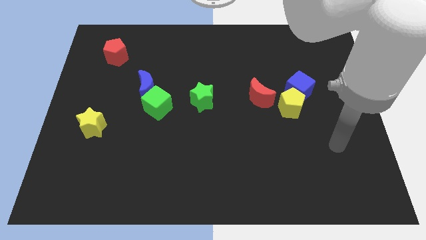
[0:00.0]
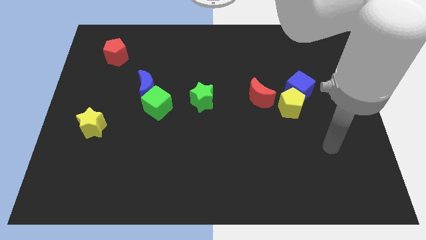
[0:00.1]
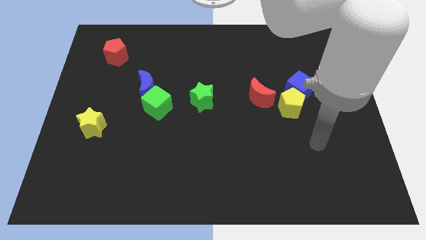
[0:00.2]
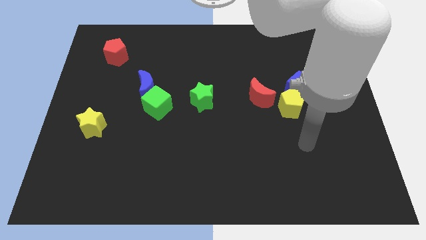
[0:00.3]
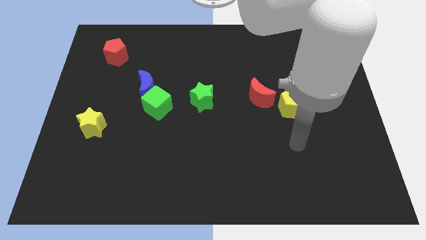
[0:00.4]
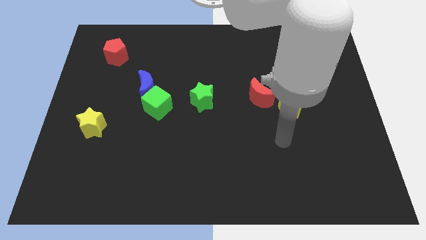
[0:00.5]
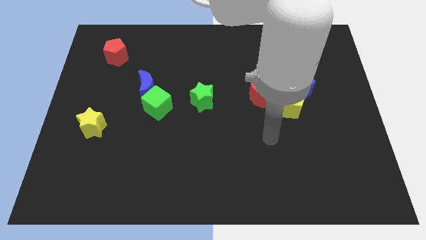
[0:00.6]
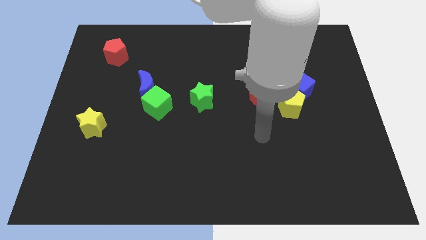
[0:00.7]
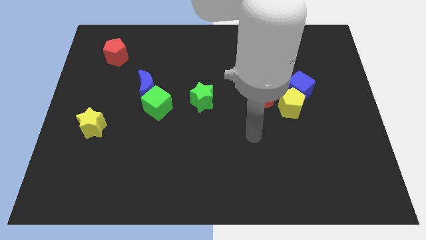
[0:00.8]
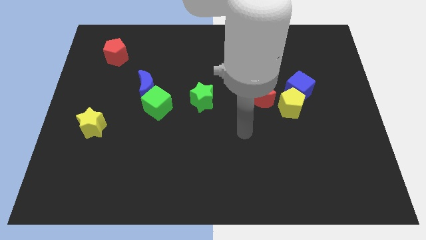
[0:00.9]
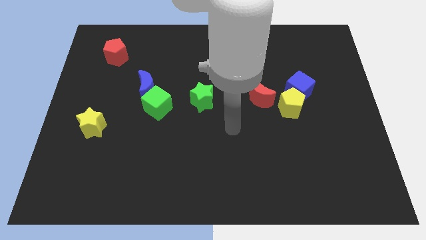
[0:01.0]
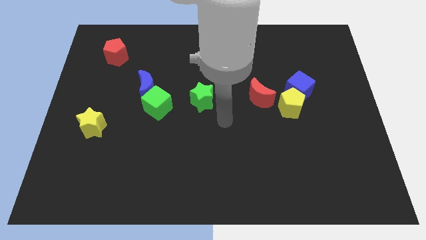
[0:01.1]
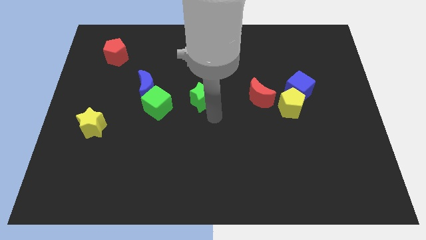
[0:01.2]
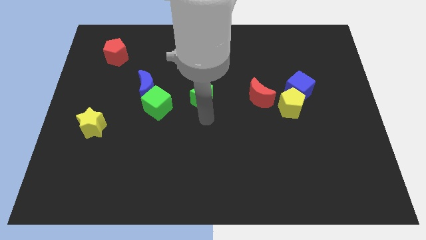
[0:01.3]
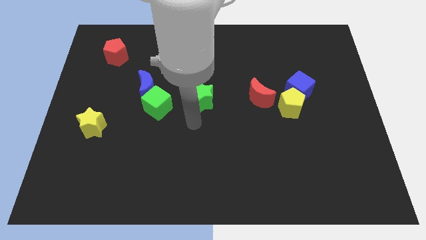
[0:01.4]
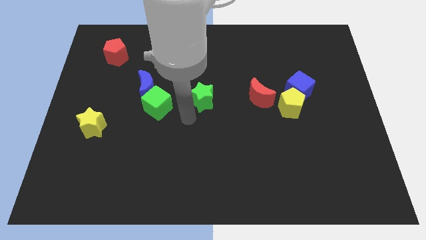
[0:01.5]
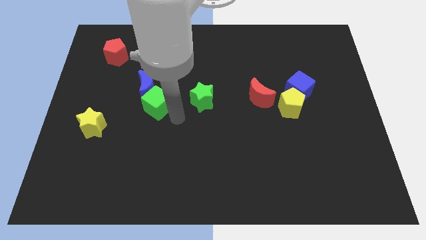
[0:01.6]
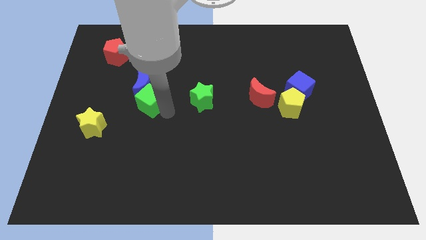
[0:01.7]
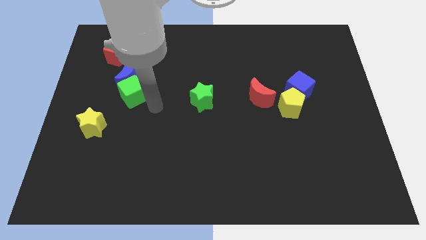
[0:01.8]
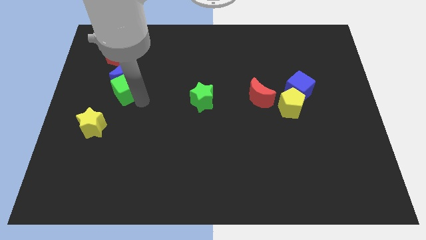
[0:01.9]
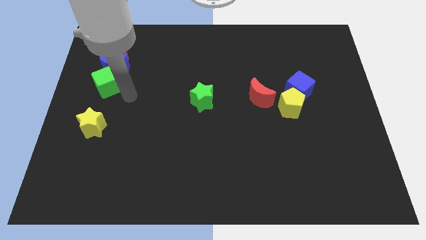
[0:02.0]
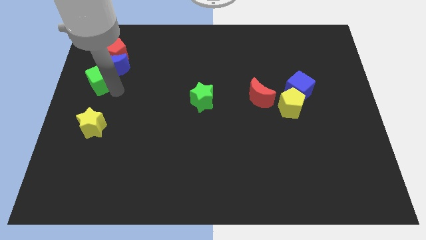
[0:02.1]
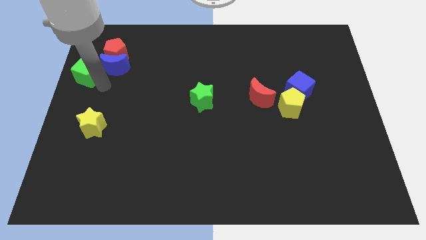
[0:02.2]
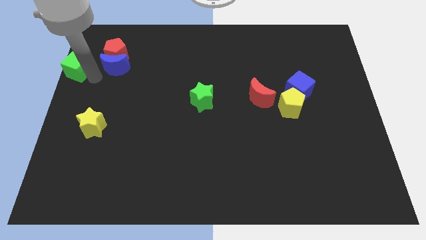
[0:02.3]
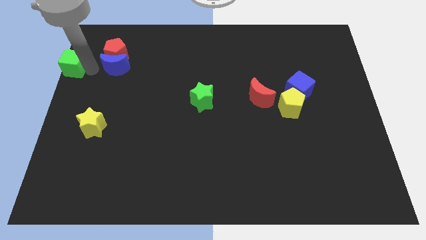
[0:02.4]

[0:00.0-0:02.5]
separate the blue moon from the green cube

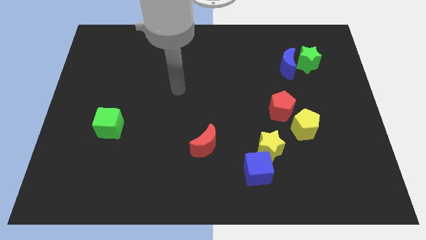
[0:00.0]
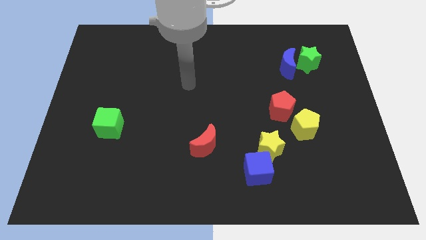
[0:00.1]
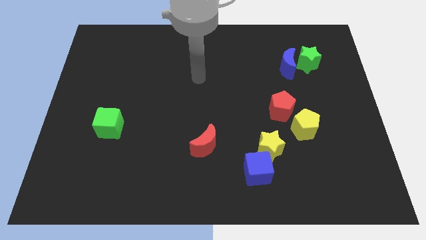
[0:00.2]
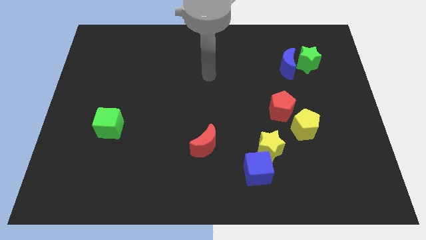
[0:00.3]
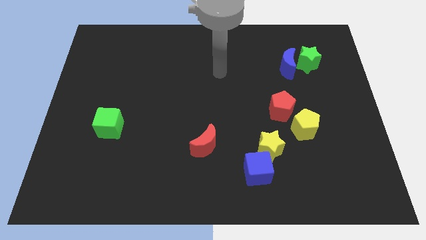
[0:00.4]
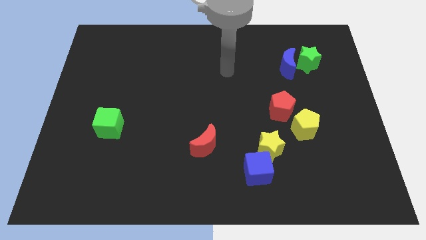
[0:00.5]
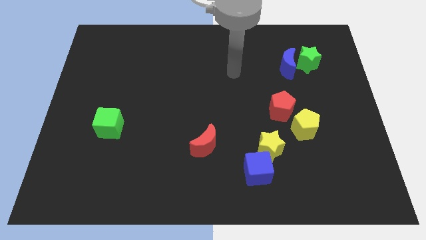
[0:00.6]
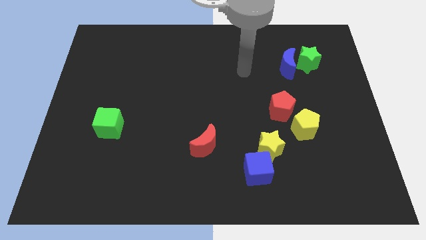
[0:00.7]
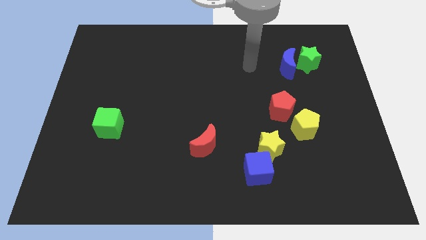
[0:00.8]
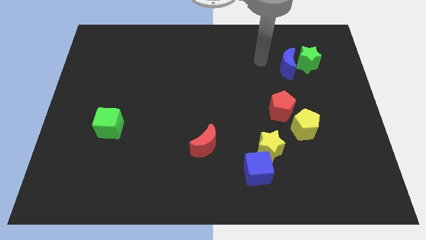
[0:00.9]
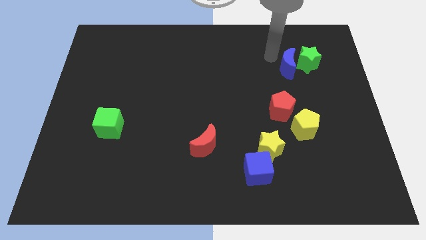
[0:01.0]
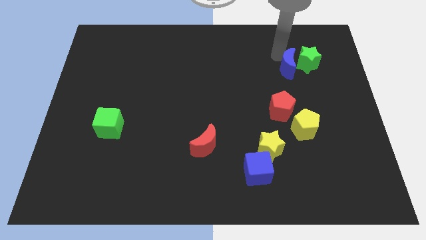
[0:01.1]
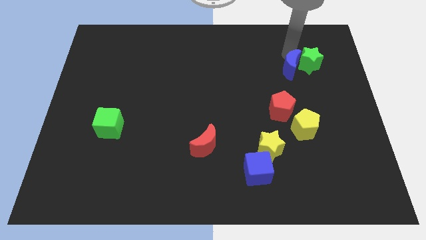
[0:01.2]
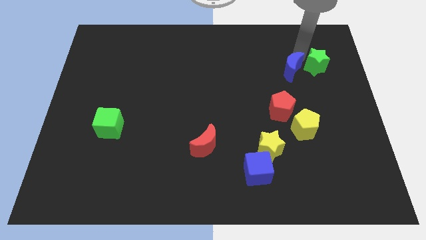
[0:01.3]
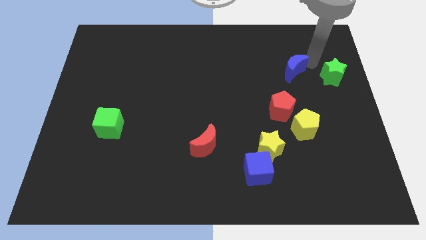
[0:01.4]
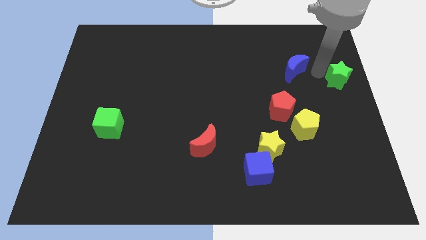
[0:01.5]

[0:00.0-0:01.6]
separate the blue moon from the green star

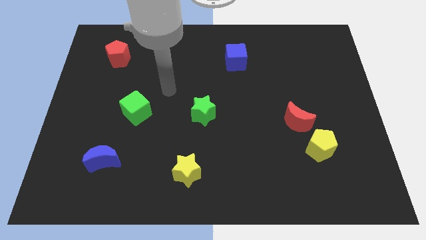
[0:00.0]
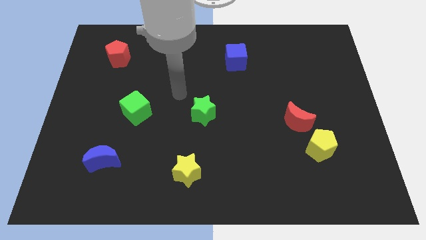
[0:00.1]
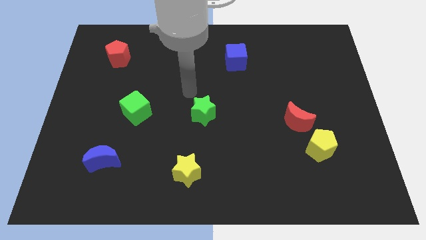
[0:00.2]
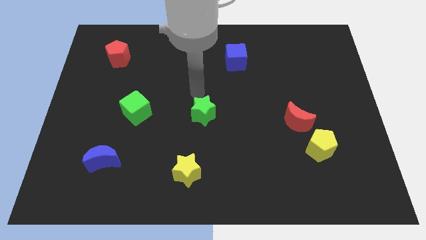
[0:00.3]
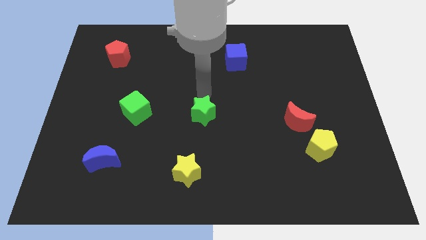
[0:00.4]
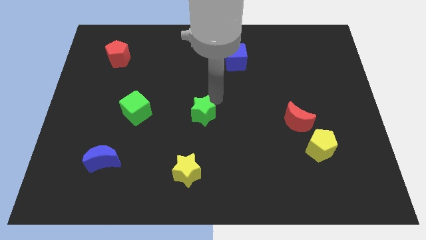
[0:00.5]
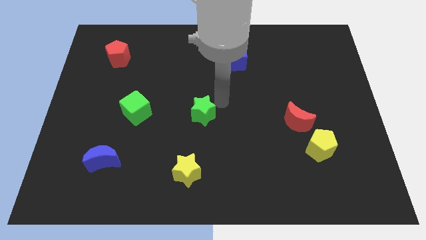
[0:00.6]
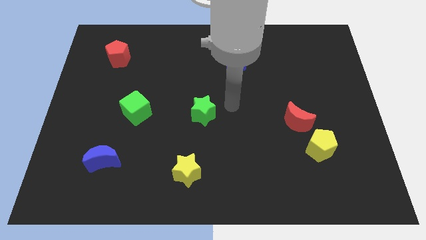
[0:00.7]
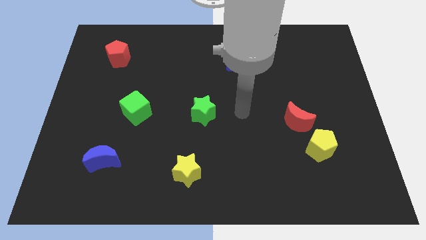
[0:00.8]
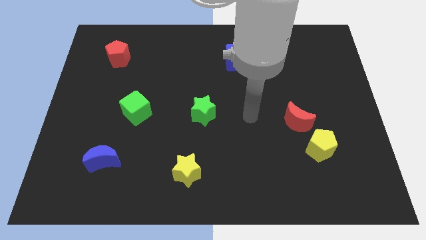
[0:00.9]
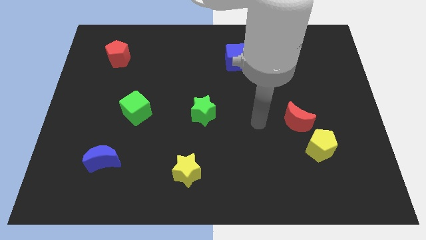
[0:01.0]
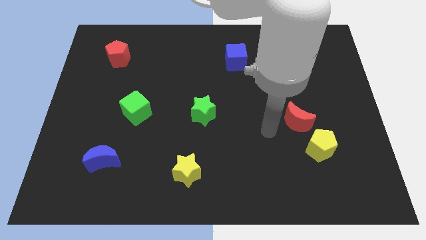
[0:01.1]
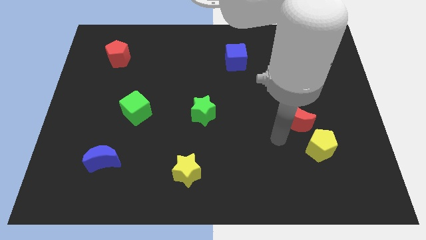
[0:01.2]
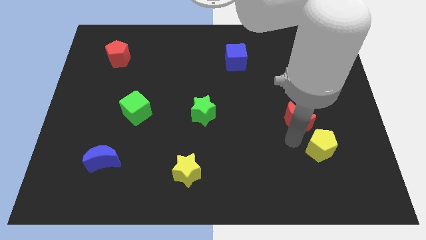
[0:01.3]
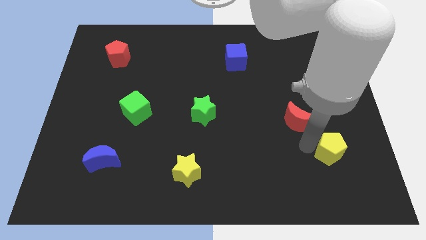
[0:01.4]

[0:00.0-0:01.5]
move the red moon away from the yellow pentagon

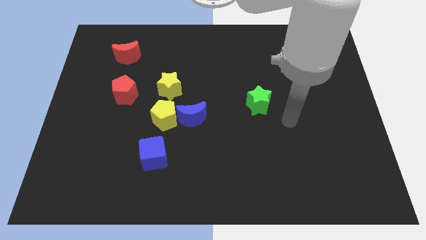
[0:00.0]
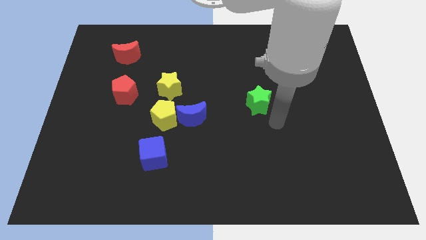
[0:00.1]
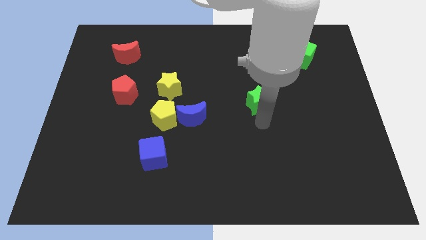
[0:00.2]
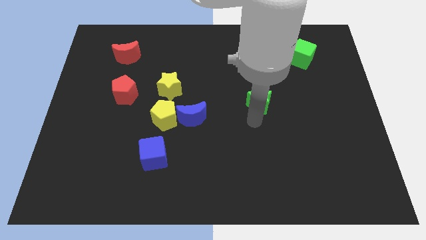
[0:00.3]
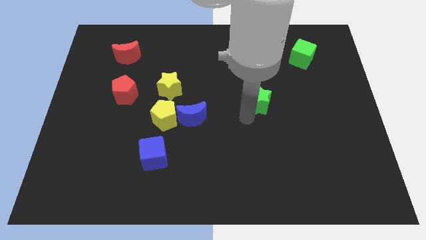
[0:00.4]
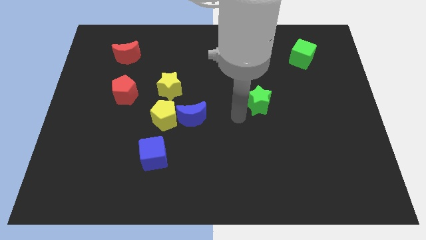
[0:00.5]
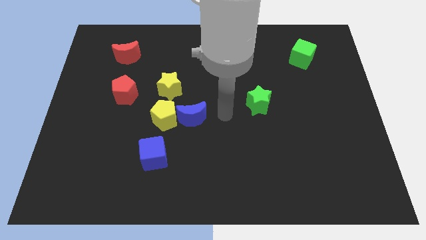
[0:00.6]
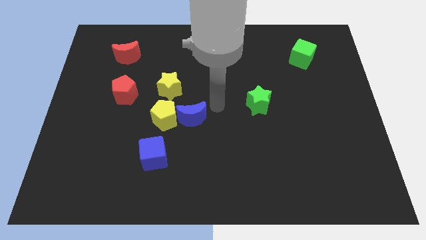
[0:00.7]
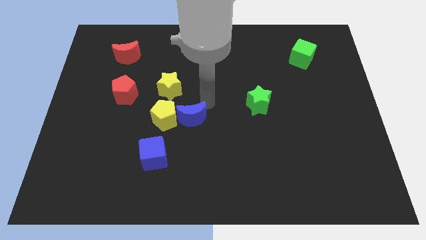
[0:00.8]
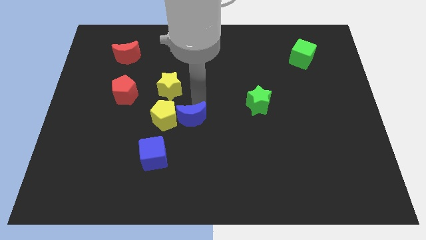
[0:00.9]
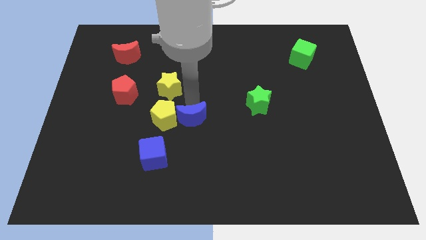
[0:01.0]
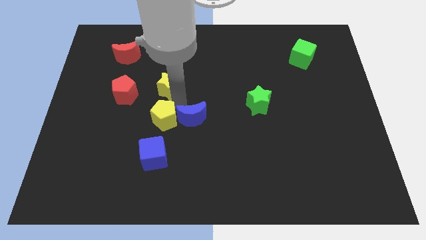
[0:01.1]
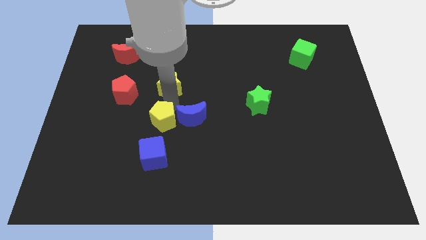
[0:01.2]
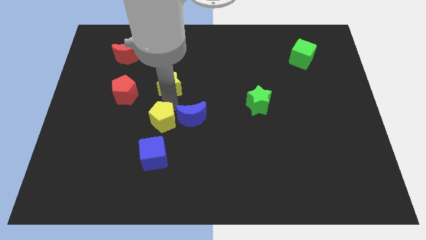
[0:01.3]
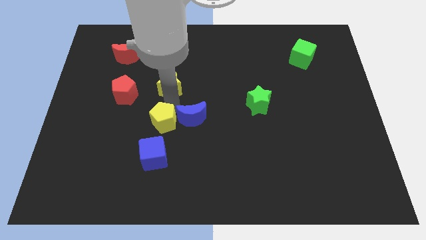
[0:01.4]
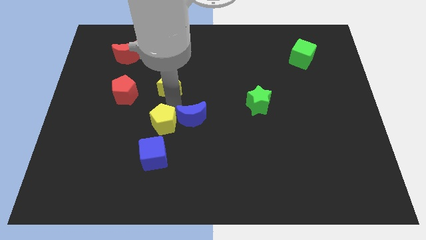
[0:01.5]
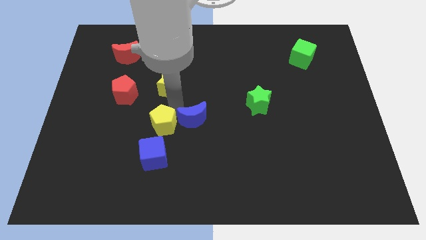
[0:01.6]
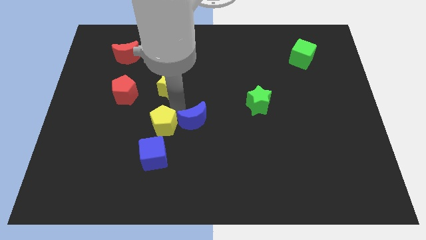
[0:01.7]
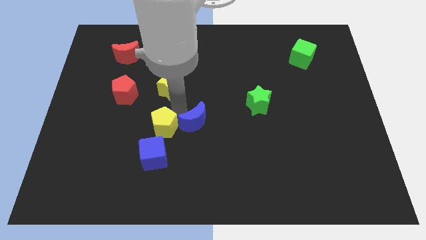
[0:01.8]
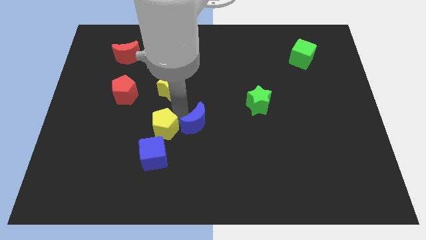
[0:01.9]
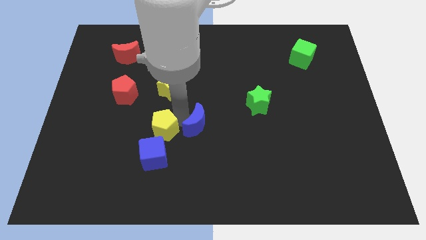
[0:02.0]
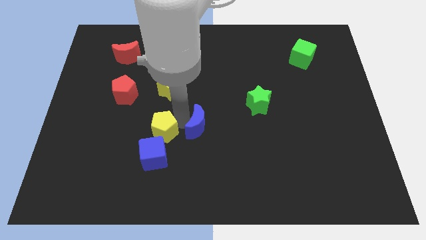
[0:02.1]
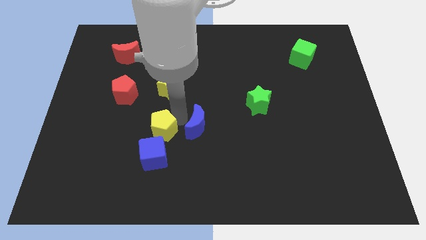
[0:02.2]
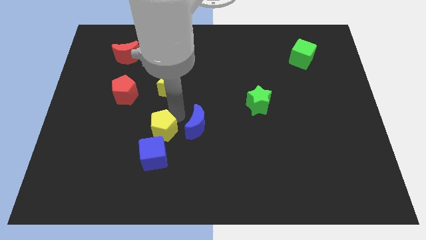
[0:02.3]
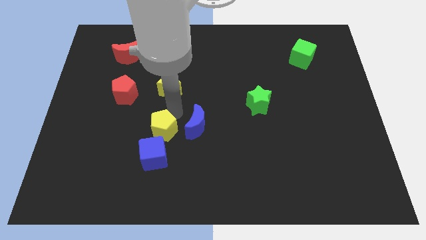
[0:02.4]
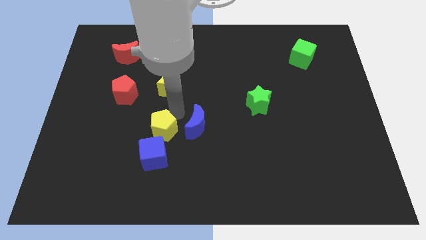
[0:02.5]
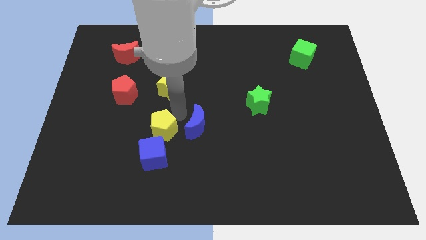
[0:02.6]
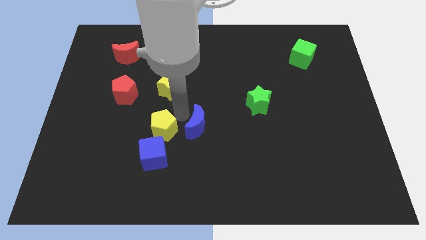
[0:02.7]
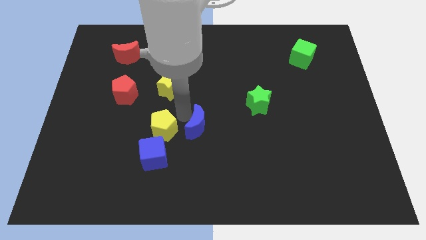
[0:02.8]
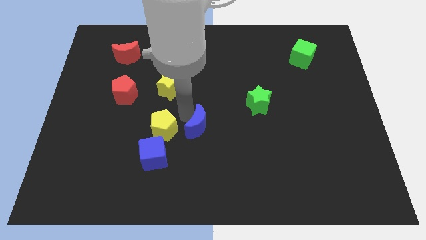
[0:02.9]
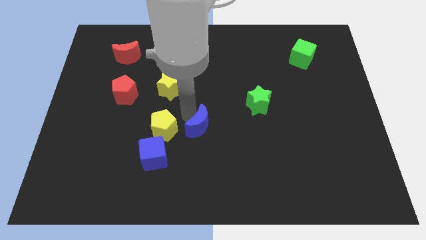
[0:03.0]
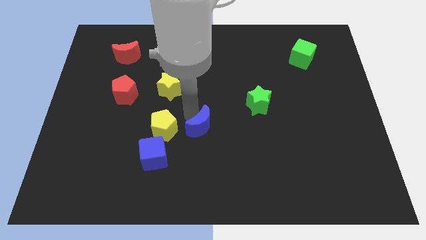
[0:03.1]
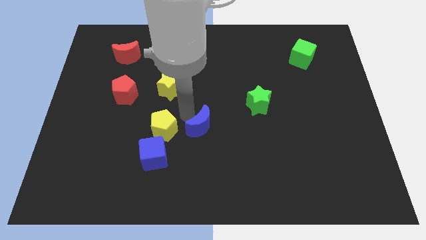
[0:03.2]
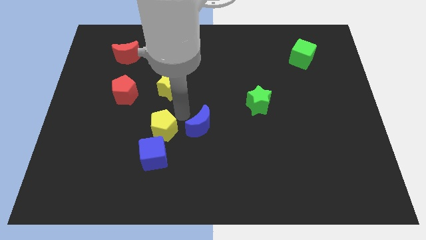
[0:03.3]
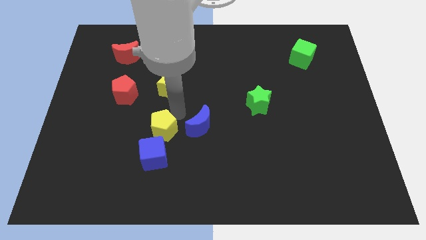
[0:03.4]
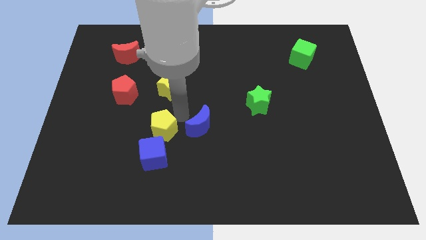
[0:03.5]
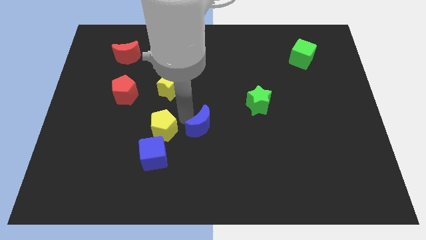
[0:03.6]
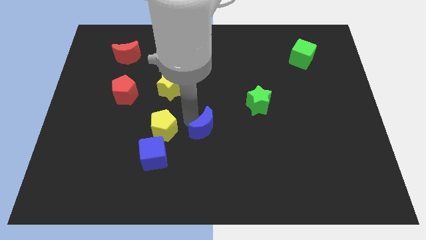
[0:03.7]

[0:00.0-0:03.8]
separate the blue moon from the yellow pentagon and yellow star

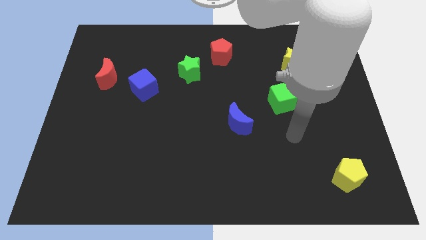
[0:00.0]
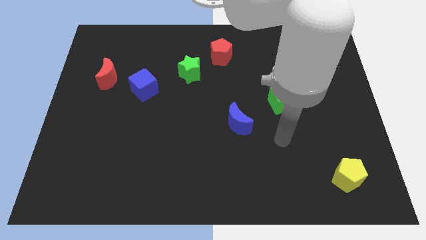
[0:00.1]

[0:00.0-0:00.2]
pull the red moon apart from the blue cube
